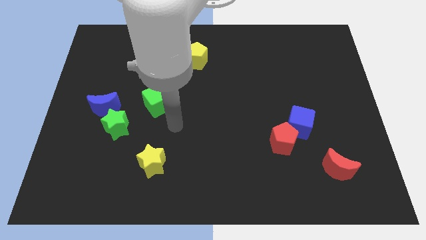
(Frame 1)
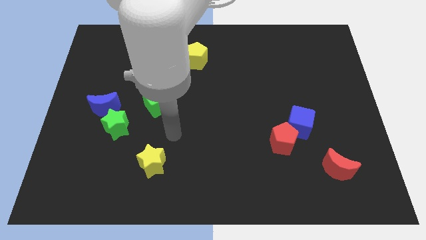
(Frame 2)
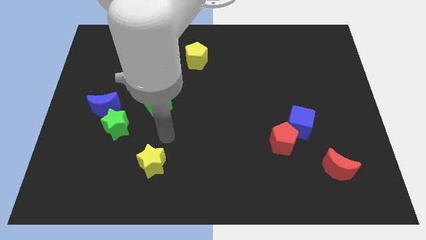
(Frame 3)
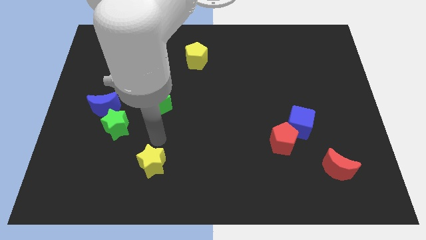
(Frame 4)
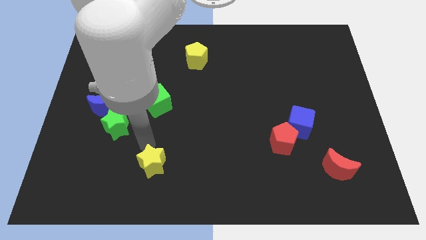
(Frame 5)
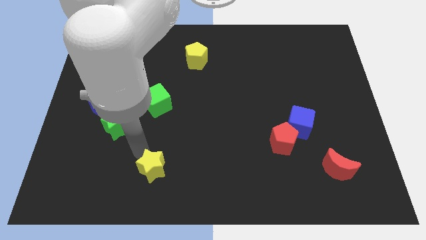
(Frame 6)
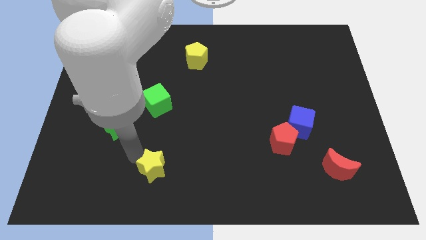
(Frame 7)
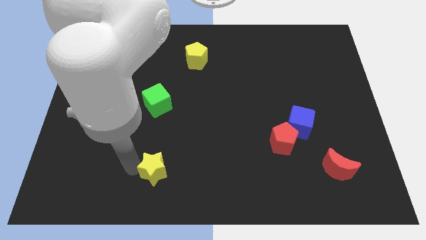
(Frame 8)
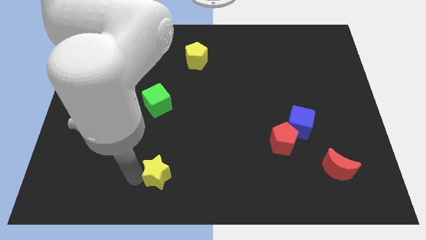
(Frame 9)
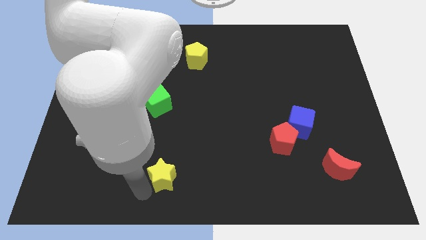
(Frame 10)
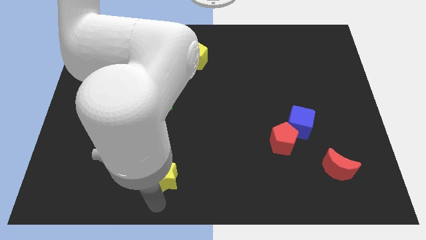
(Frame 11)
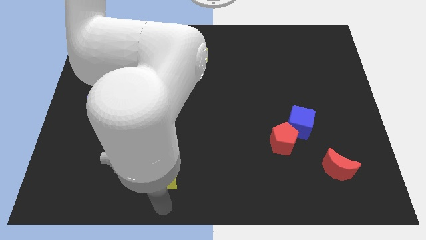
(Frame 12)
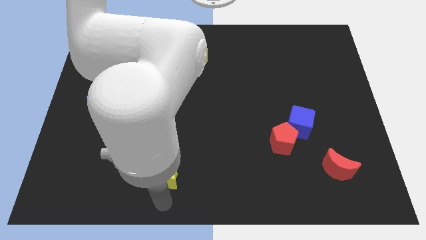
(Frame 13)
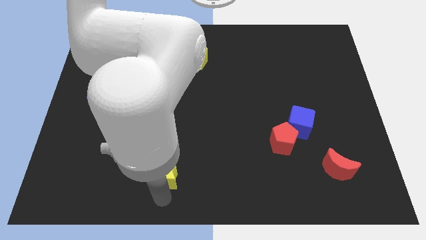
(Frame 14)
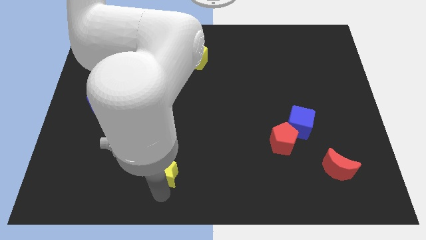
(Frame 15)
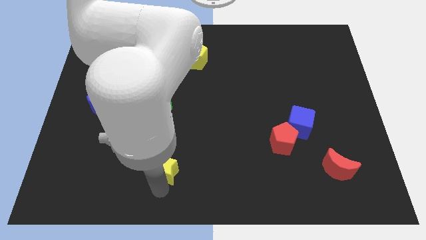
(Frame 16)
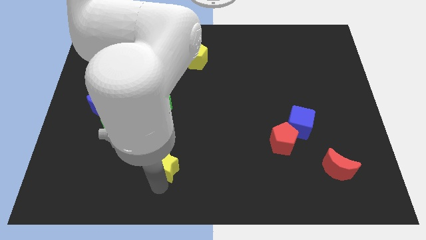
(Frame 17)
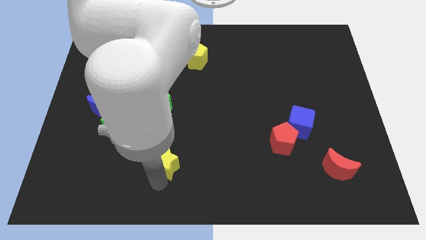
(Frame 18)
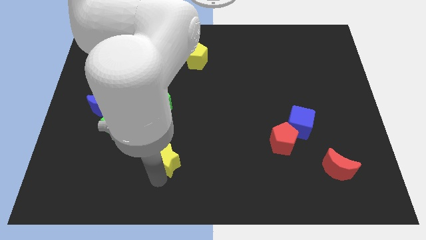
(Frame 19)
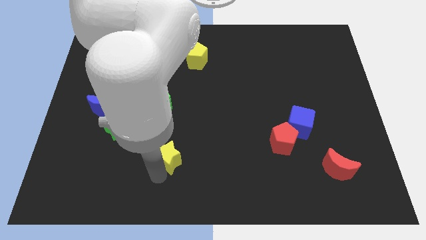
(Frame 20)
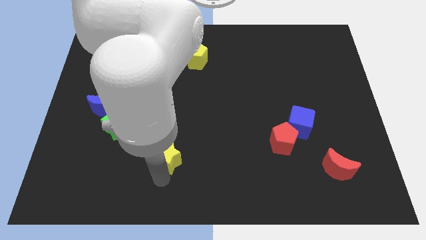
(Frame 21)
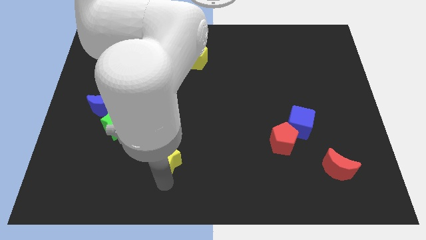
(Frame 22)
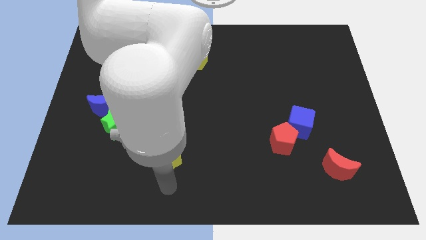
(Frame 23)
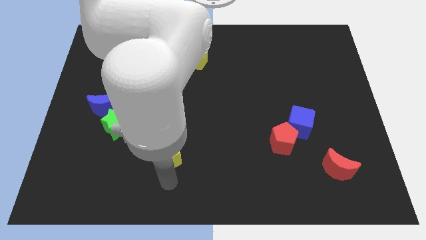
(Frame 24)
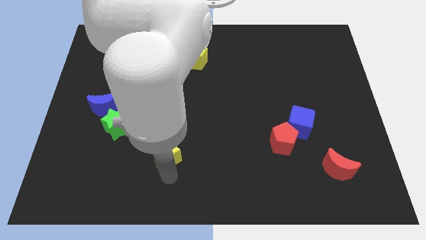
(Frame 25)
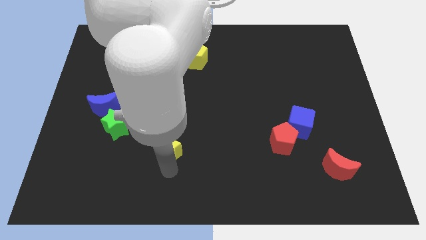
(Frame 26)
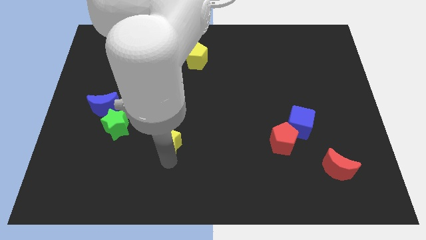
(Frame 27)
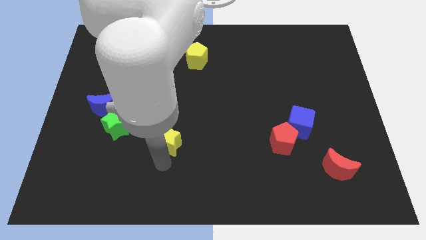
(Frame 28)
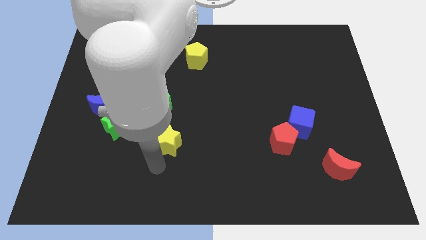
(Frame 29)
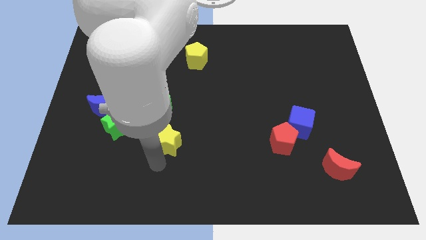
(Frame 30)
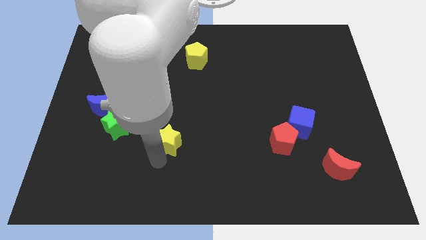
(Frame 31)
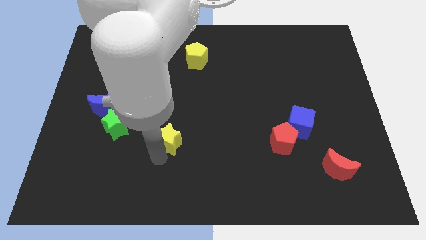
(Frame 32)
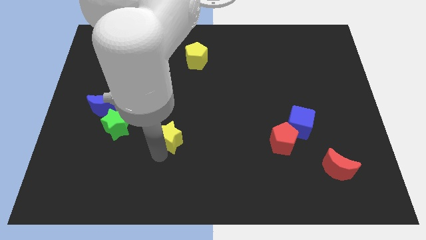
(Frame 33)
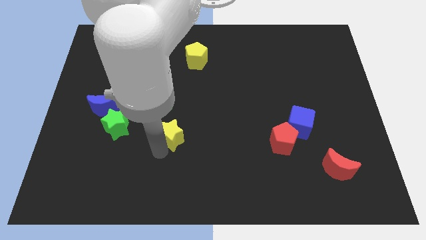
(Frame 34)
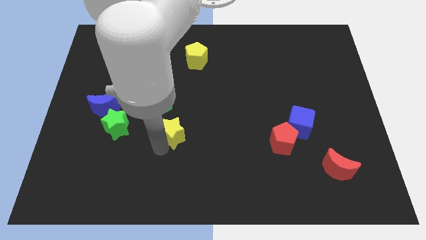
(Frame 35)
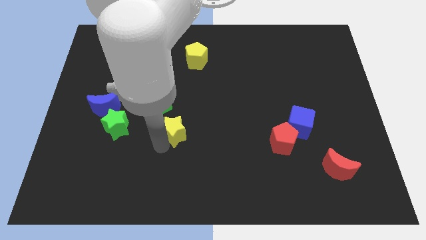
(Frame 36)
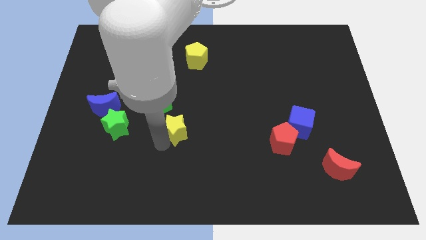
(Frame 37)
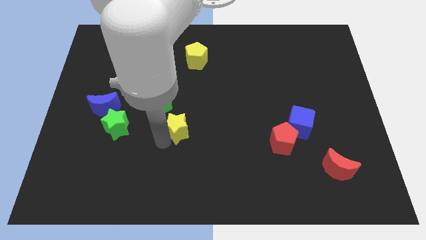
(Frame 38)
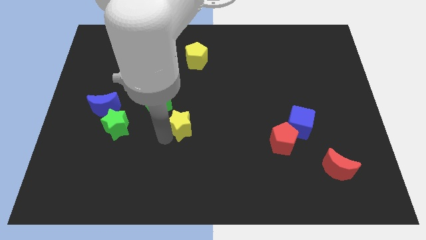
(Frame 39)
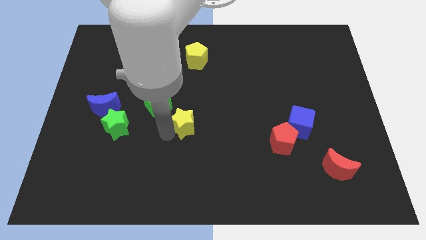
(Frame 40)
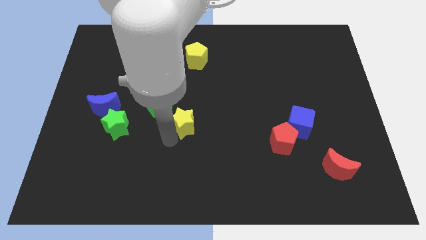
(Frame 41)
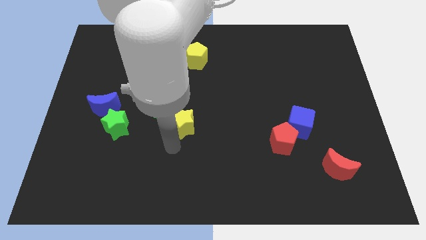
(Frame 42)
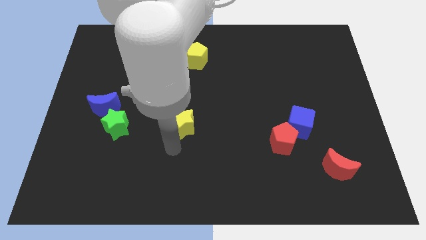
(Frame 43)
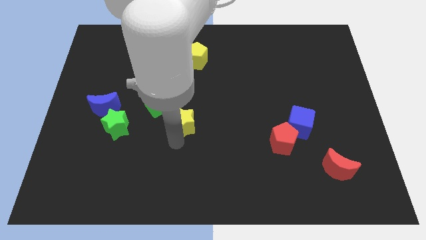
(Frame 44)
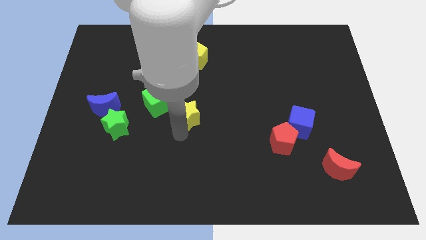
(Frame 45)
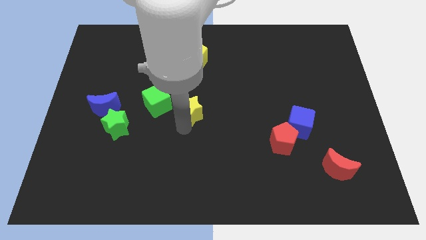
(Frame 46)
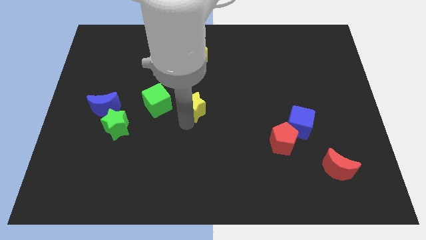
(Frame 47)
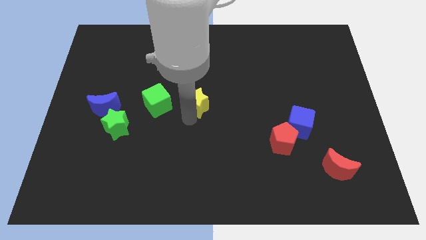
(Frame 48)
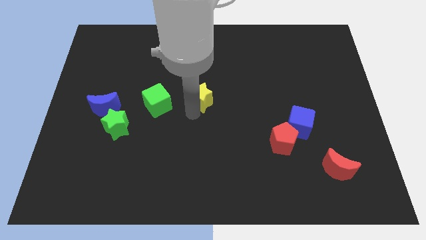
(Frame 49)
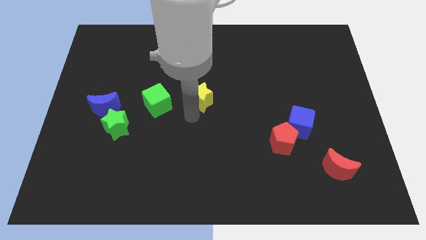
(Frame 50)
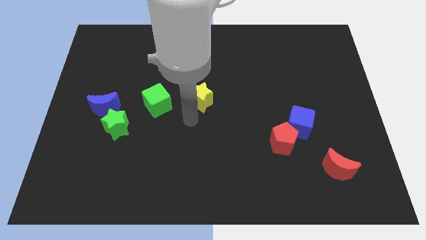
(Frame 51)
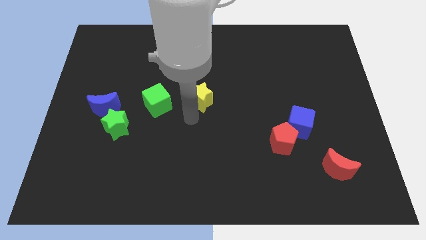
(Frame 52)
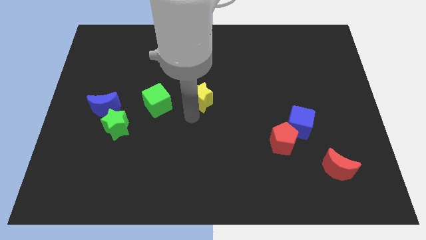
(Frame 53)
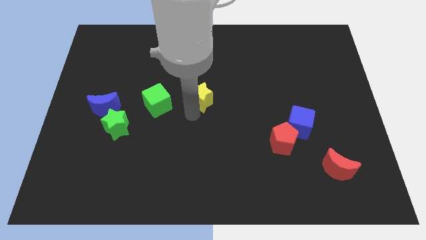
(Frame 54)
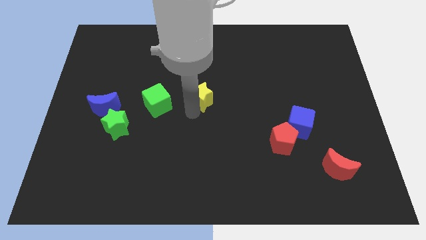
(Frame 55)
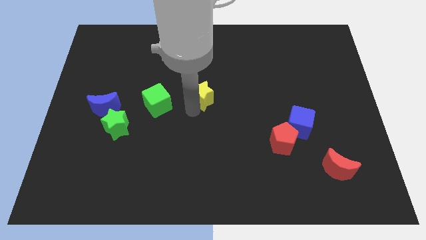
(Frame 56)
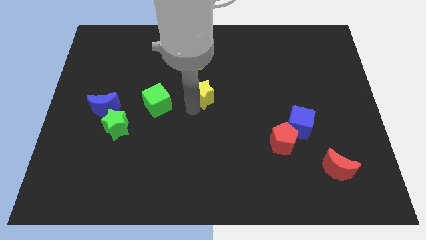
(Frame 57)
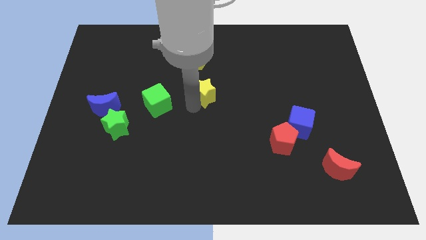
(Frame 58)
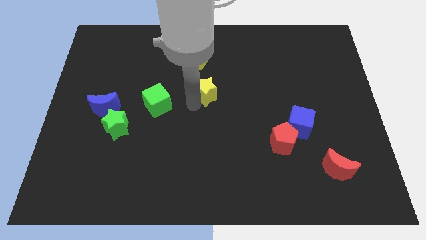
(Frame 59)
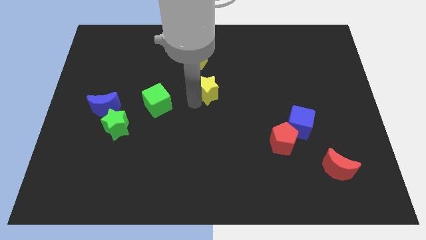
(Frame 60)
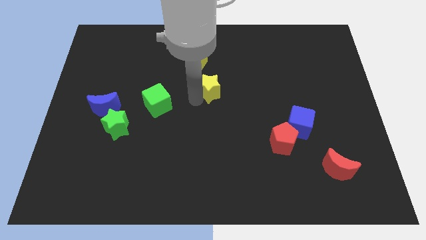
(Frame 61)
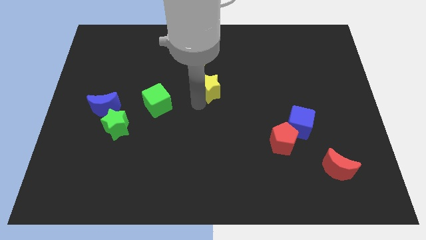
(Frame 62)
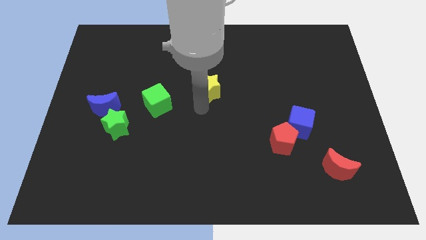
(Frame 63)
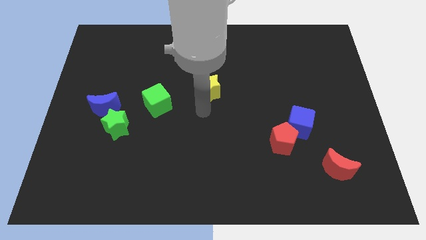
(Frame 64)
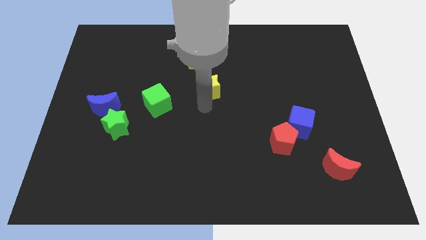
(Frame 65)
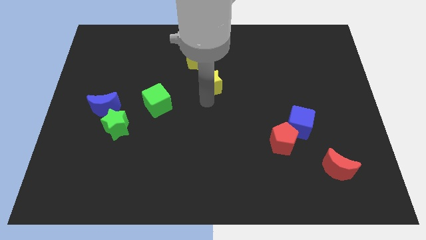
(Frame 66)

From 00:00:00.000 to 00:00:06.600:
move the yellow star to the bottom right side of the yellow pentagon
